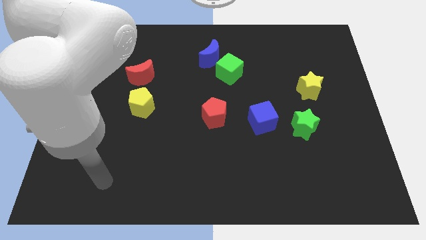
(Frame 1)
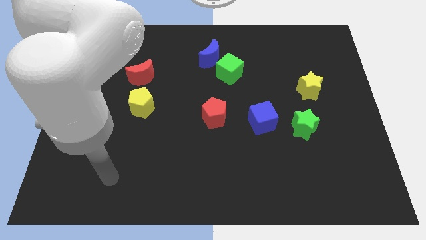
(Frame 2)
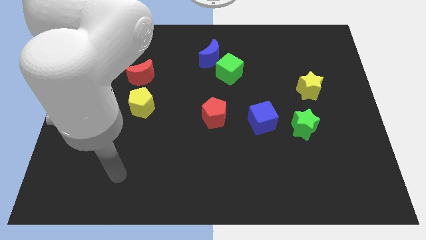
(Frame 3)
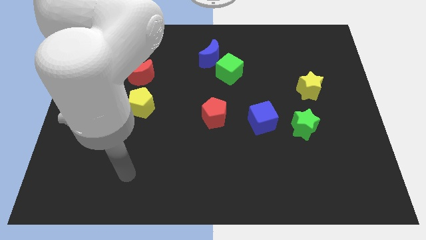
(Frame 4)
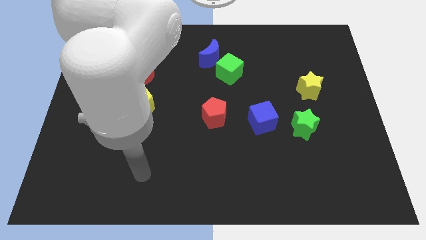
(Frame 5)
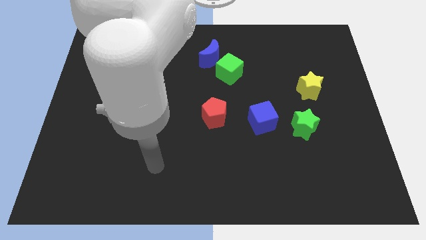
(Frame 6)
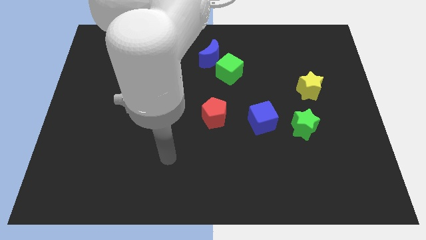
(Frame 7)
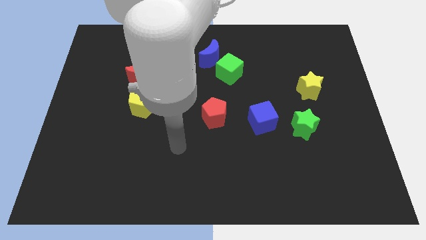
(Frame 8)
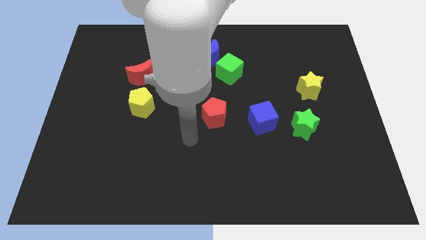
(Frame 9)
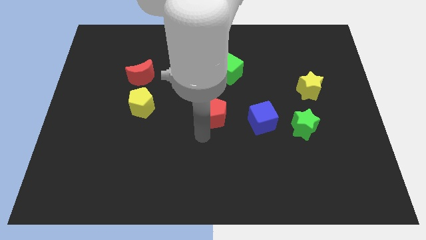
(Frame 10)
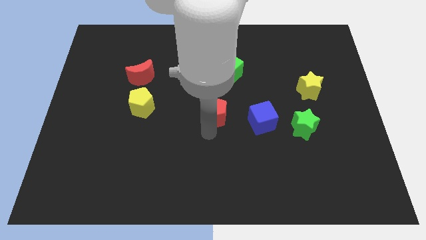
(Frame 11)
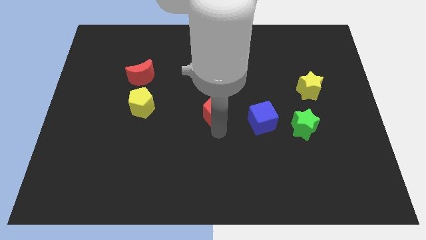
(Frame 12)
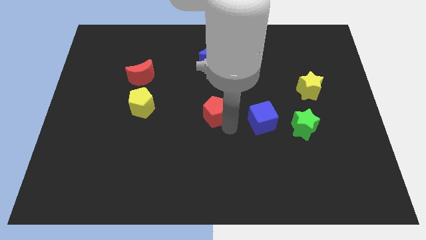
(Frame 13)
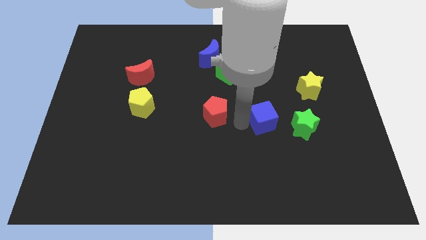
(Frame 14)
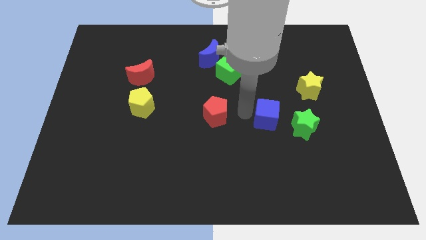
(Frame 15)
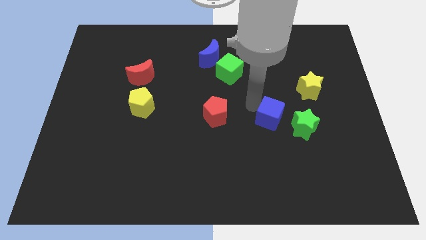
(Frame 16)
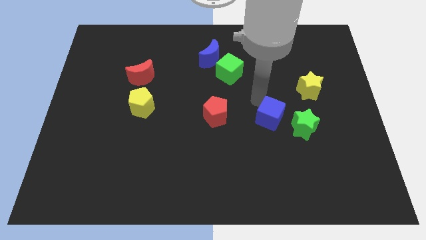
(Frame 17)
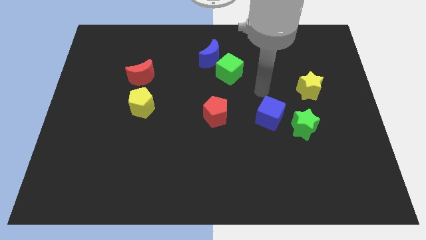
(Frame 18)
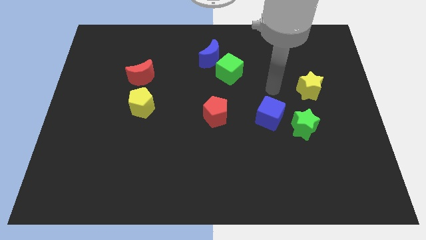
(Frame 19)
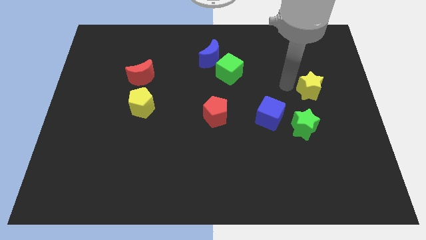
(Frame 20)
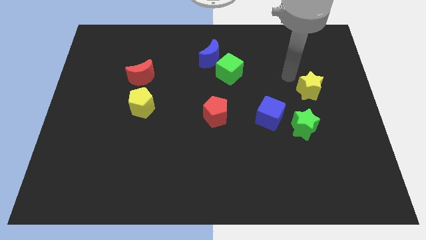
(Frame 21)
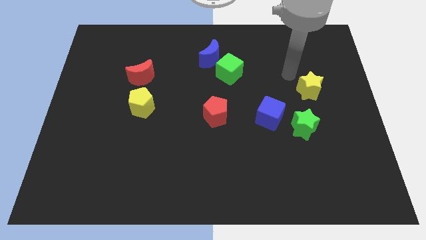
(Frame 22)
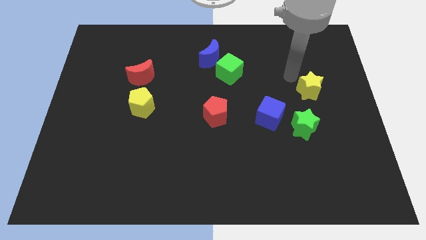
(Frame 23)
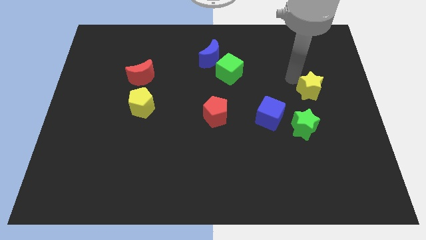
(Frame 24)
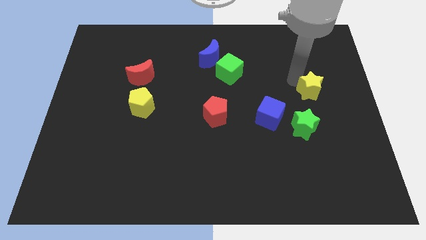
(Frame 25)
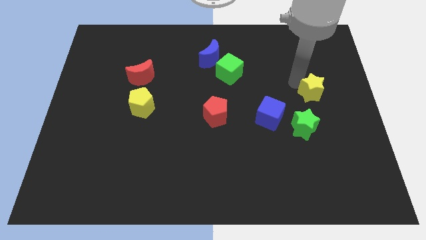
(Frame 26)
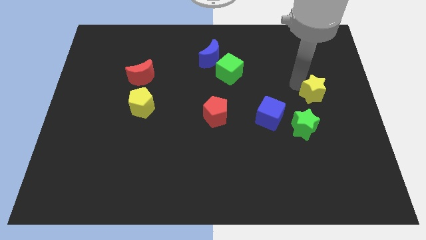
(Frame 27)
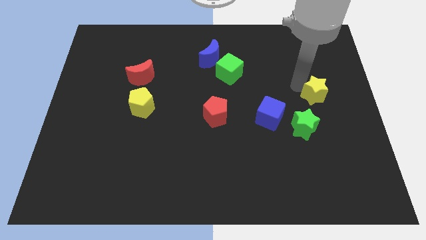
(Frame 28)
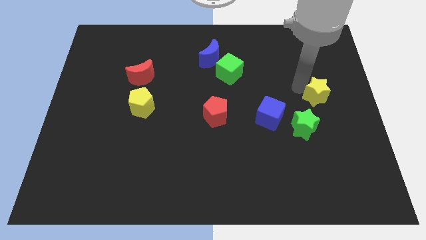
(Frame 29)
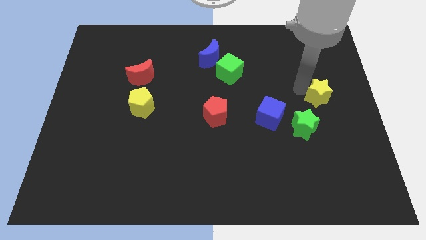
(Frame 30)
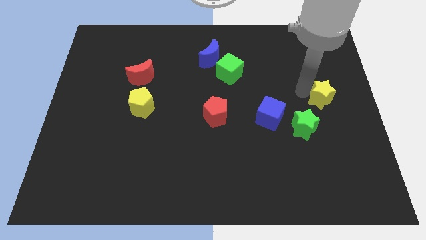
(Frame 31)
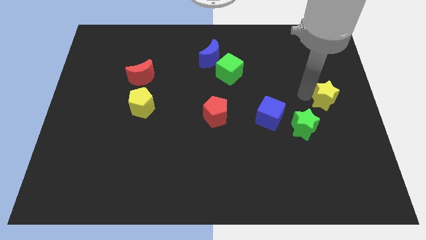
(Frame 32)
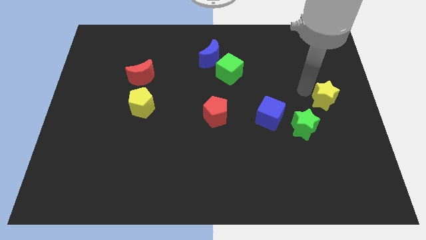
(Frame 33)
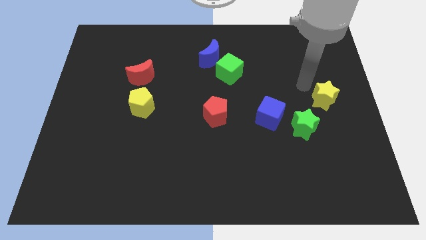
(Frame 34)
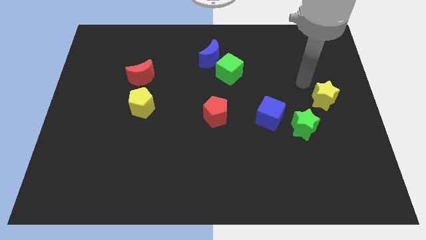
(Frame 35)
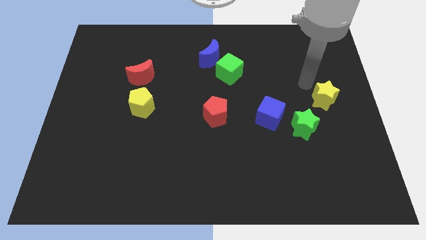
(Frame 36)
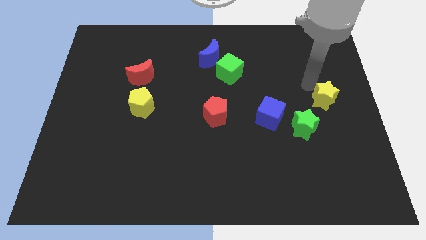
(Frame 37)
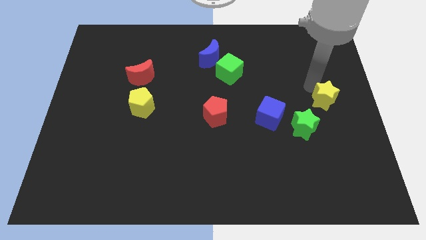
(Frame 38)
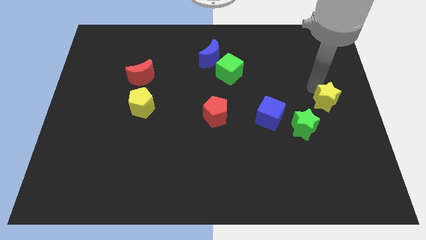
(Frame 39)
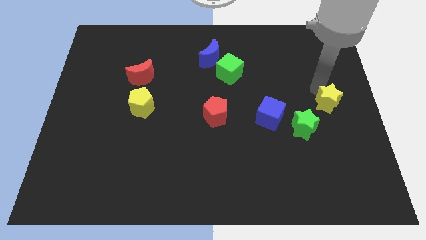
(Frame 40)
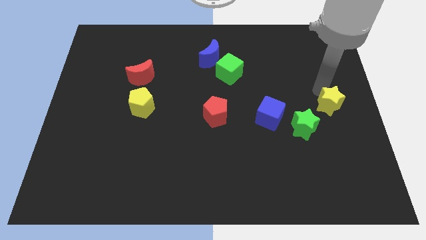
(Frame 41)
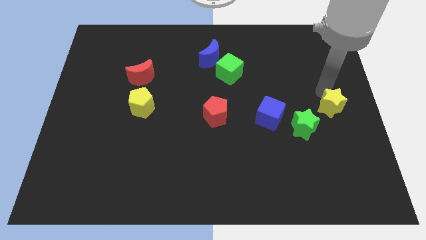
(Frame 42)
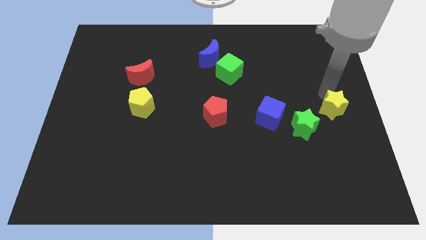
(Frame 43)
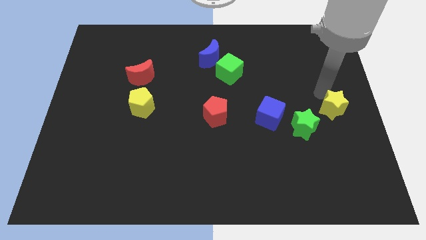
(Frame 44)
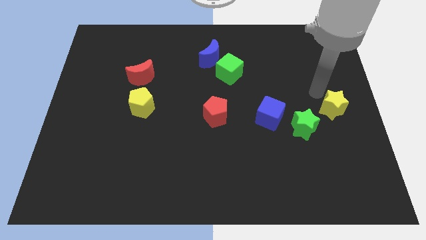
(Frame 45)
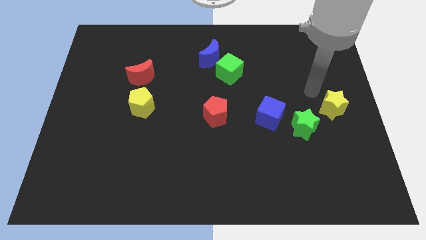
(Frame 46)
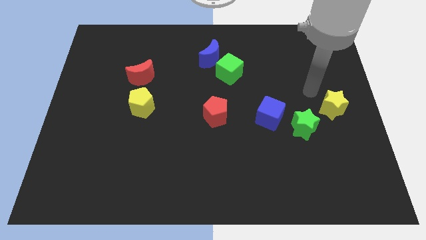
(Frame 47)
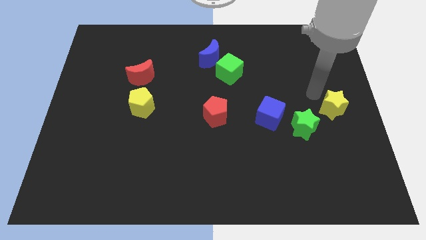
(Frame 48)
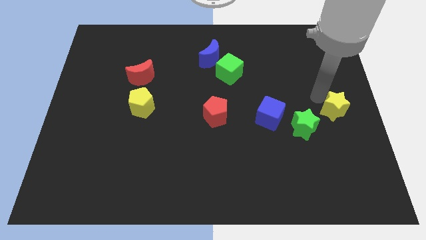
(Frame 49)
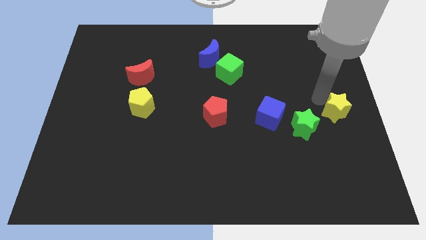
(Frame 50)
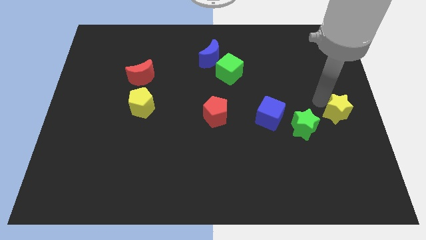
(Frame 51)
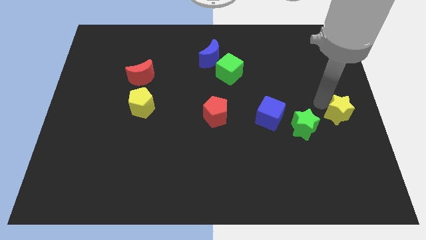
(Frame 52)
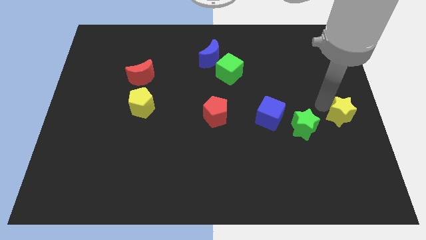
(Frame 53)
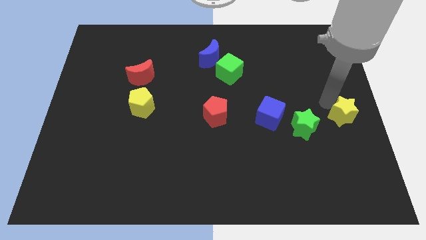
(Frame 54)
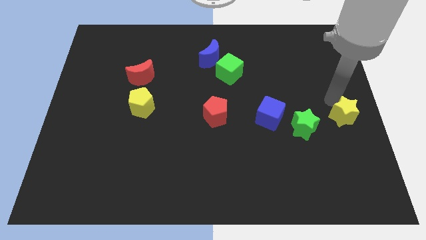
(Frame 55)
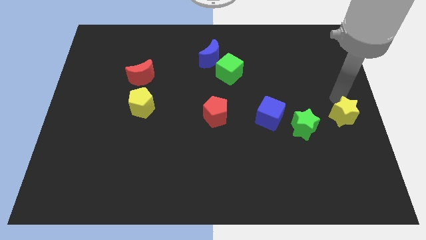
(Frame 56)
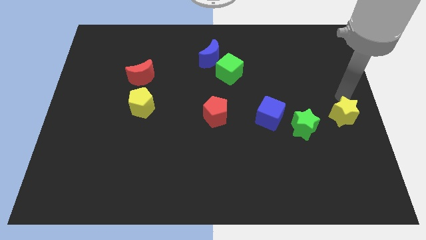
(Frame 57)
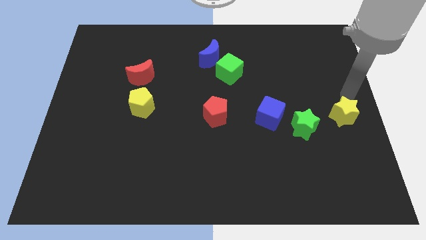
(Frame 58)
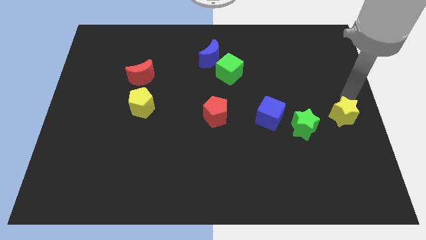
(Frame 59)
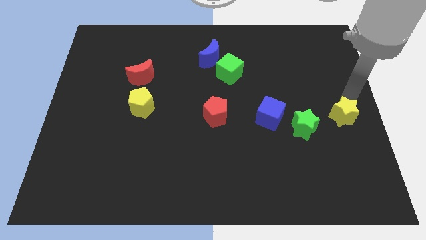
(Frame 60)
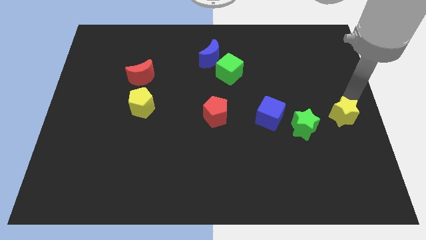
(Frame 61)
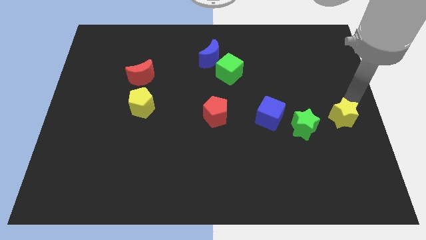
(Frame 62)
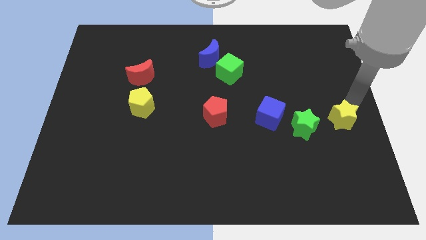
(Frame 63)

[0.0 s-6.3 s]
slightly move the yellow star downwards

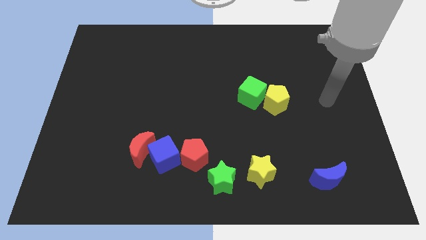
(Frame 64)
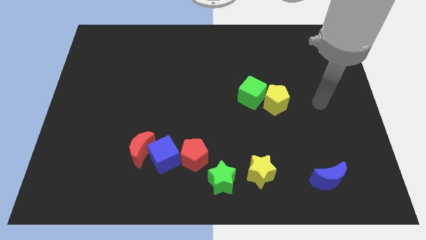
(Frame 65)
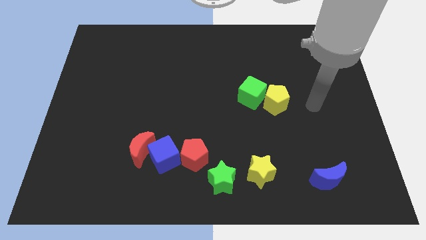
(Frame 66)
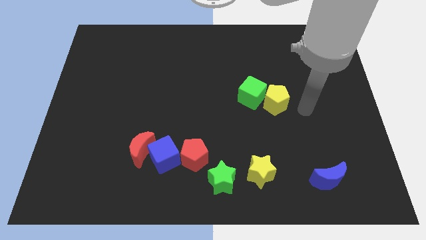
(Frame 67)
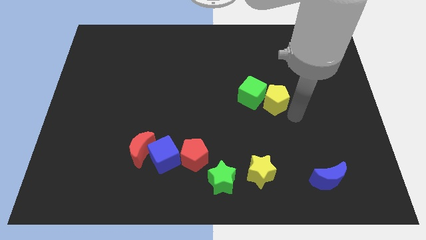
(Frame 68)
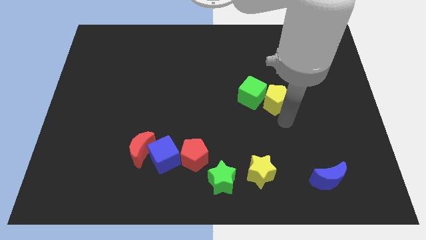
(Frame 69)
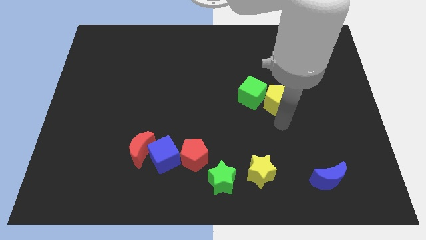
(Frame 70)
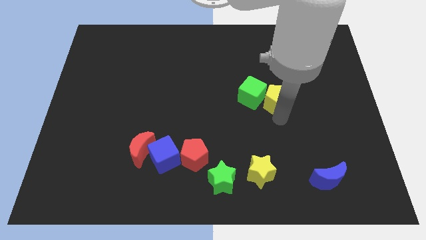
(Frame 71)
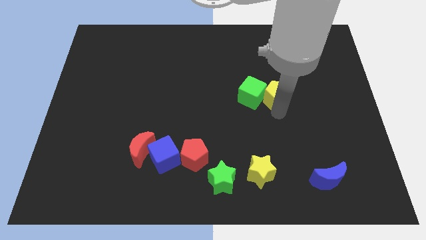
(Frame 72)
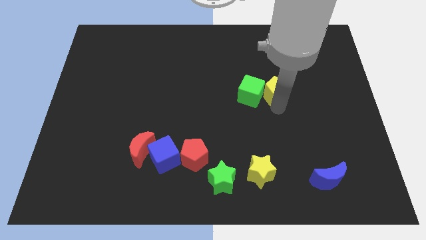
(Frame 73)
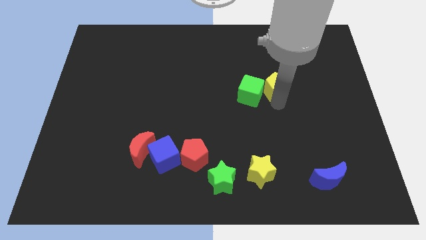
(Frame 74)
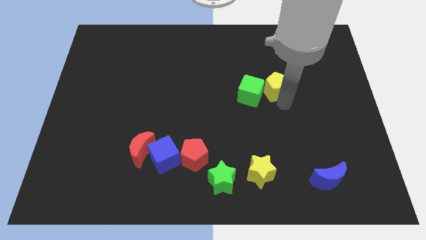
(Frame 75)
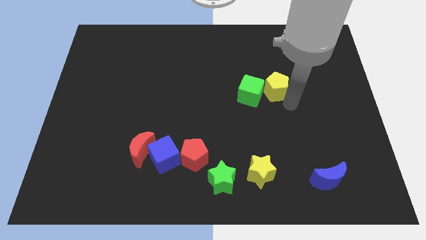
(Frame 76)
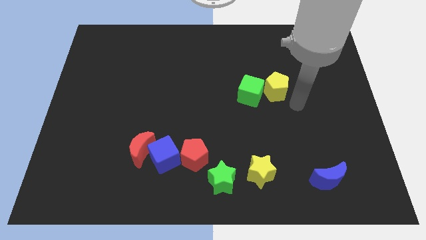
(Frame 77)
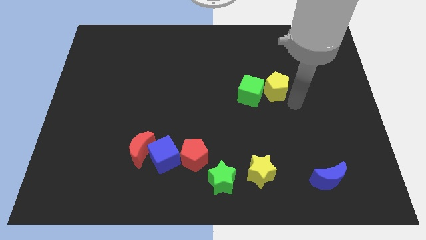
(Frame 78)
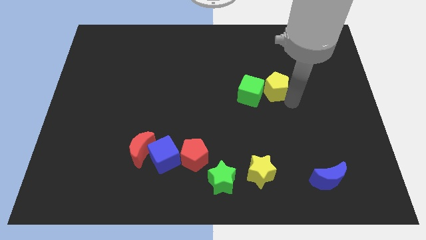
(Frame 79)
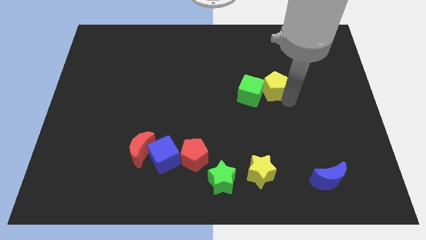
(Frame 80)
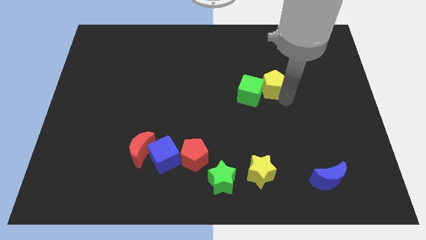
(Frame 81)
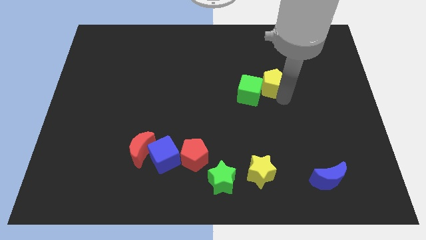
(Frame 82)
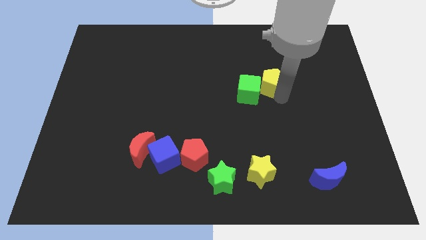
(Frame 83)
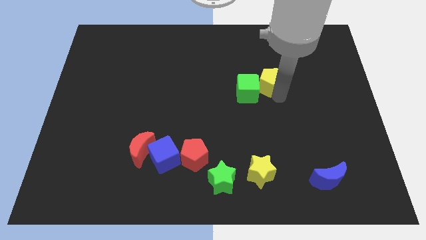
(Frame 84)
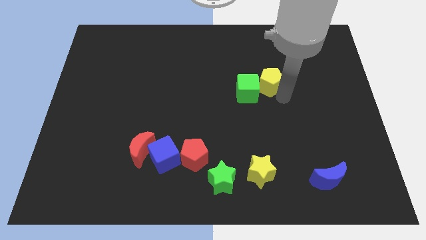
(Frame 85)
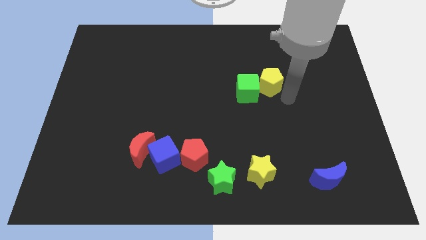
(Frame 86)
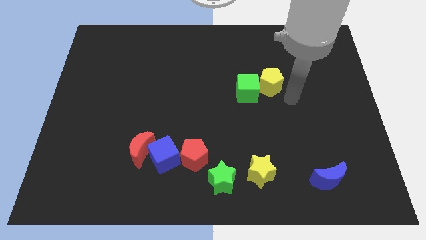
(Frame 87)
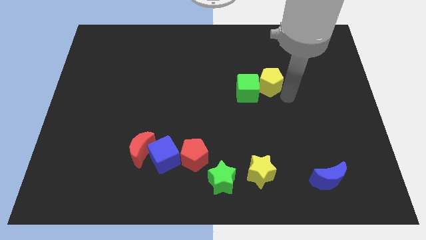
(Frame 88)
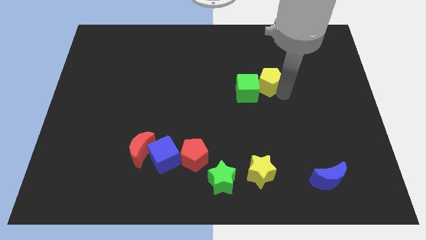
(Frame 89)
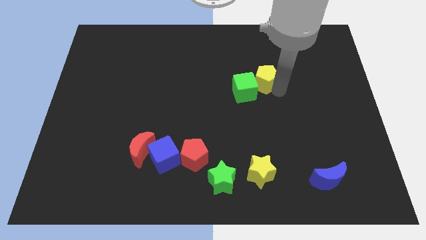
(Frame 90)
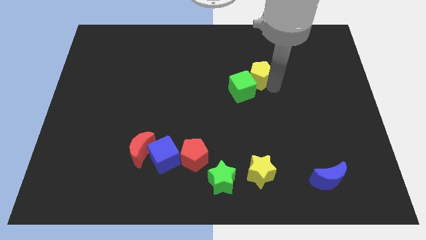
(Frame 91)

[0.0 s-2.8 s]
slide the yellow pentagon upwards and to the left somewhat
